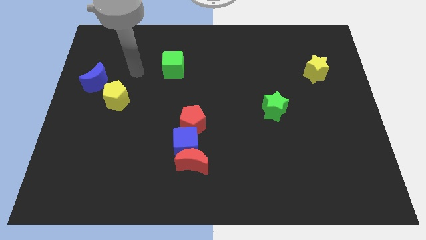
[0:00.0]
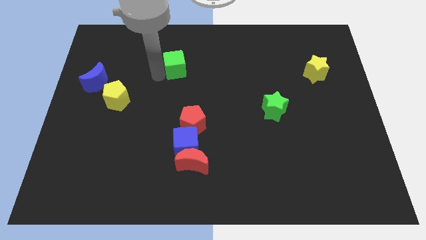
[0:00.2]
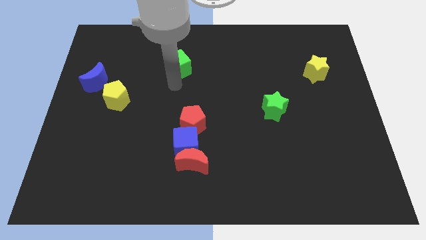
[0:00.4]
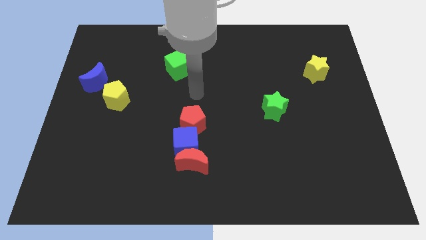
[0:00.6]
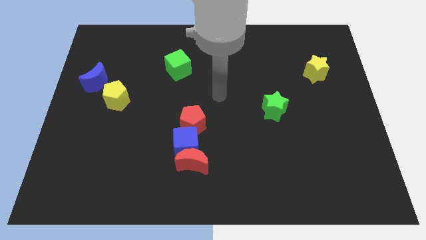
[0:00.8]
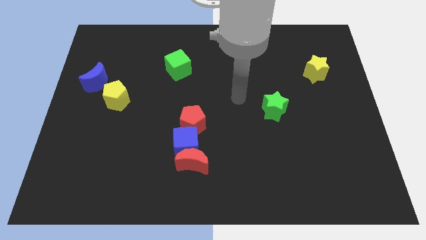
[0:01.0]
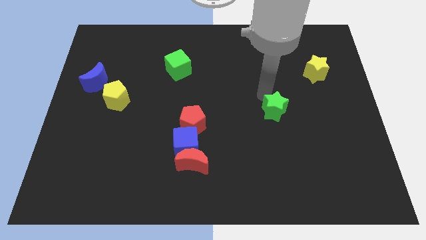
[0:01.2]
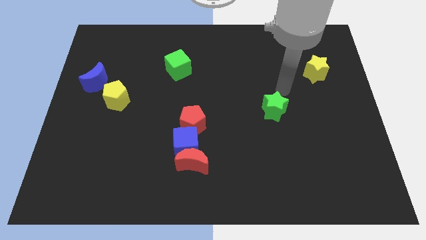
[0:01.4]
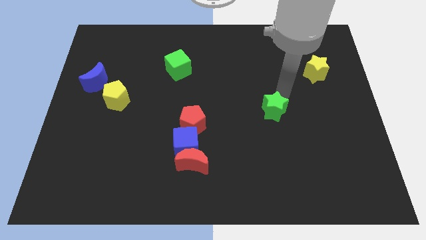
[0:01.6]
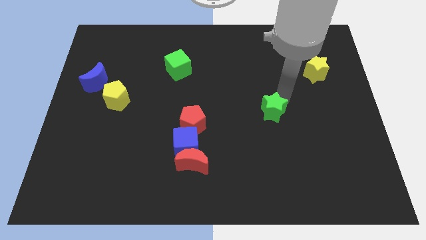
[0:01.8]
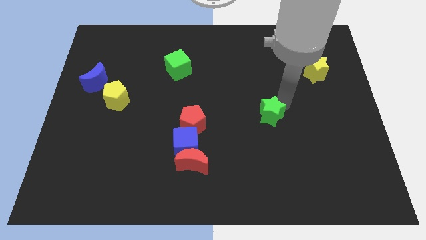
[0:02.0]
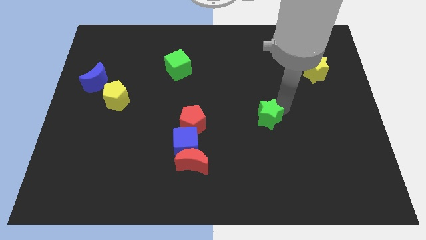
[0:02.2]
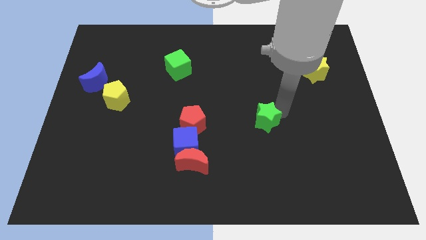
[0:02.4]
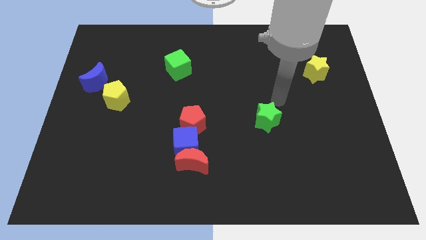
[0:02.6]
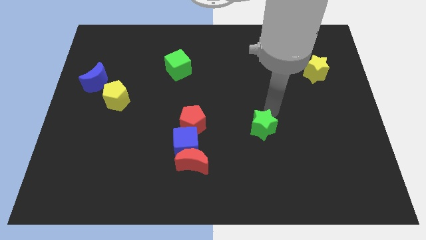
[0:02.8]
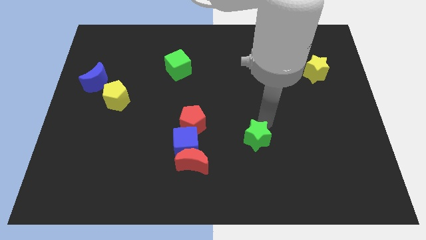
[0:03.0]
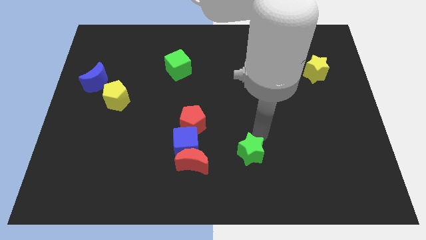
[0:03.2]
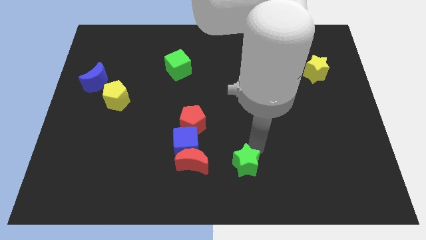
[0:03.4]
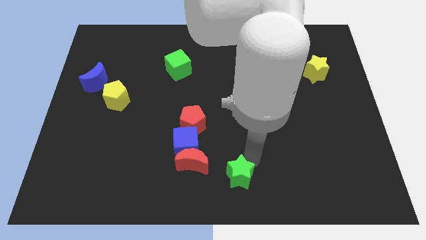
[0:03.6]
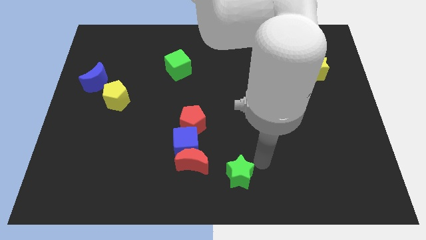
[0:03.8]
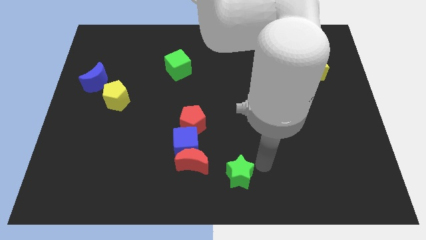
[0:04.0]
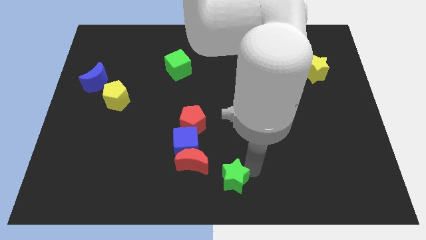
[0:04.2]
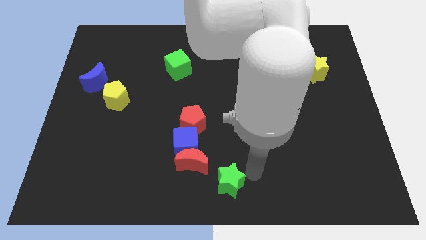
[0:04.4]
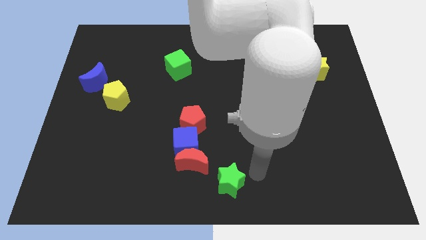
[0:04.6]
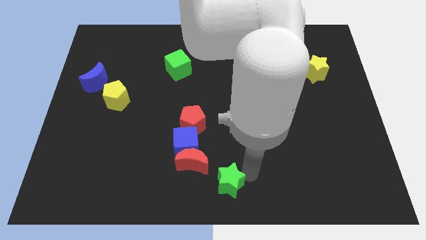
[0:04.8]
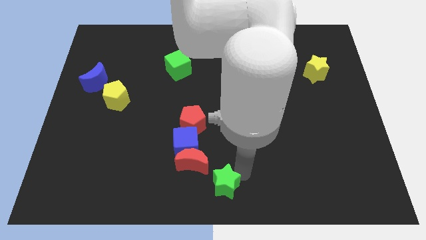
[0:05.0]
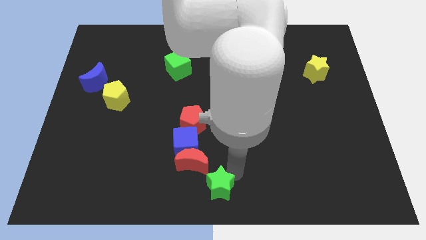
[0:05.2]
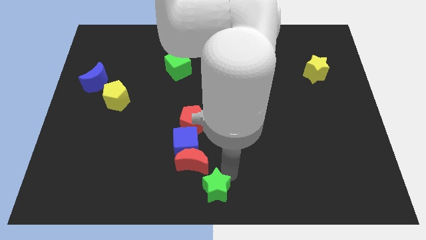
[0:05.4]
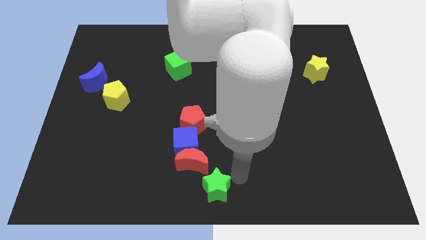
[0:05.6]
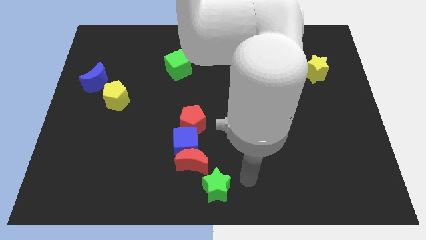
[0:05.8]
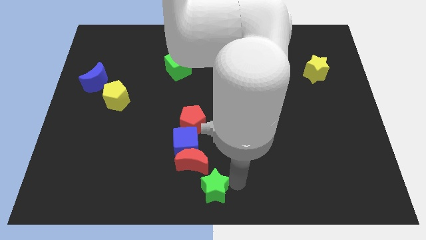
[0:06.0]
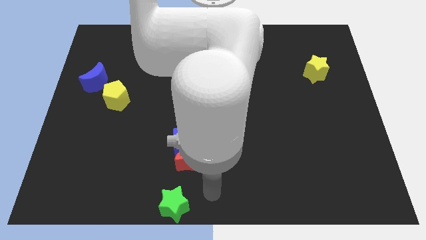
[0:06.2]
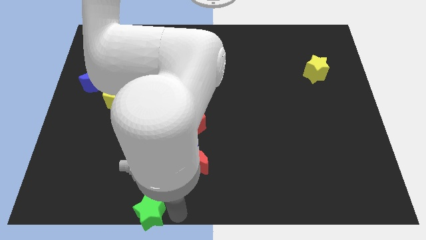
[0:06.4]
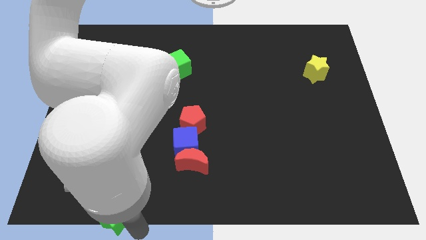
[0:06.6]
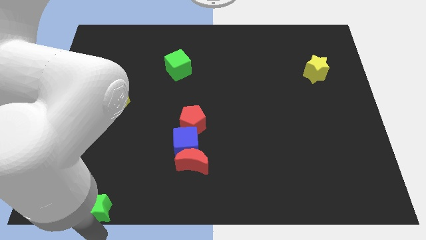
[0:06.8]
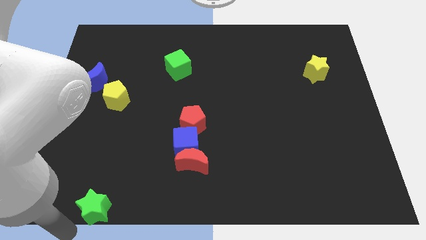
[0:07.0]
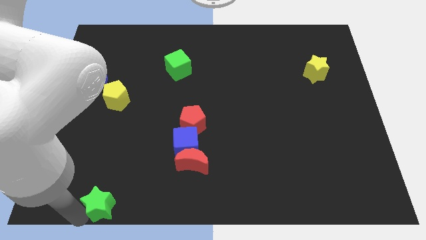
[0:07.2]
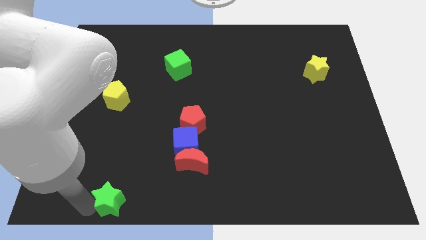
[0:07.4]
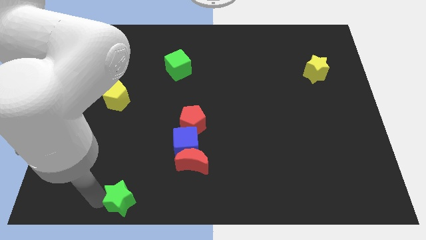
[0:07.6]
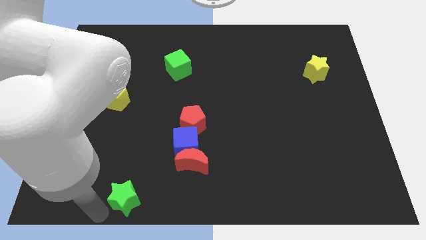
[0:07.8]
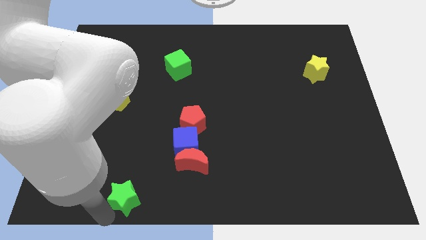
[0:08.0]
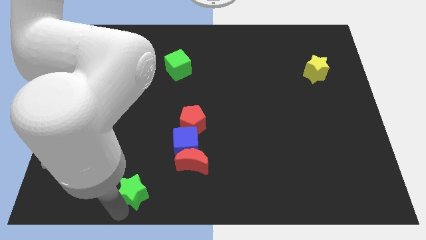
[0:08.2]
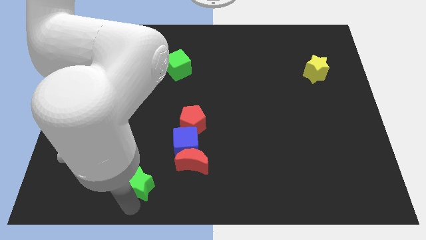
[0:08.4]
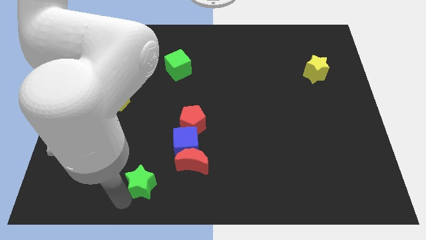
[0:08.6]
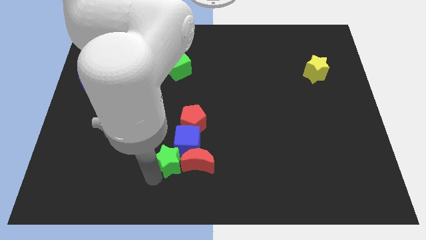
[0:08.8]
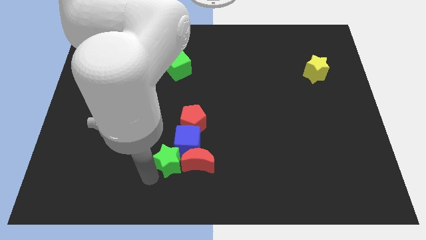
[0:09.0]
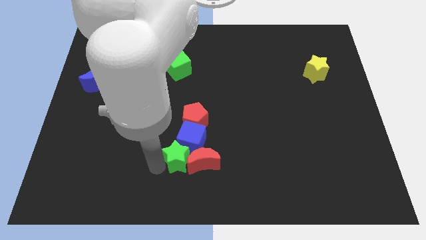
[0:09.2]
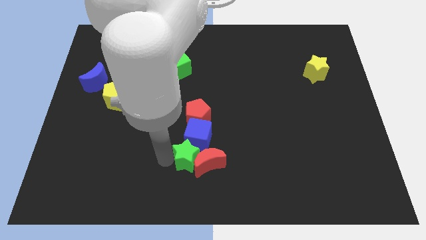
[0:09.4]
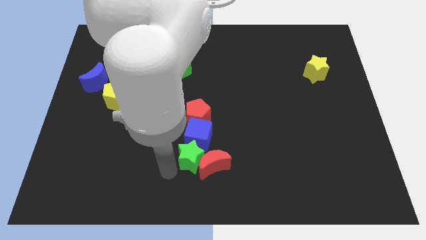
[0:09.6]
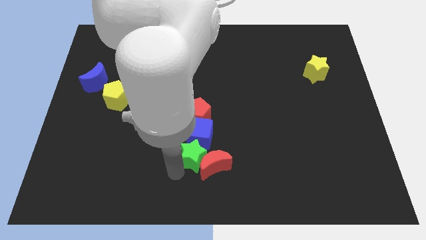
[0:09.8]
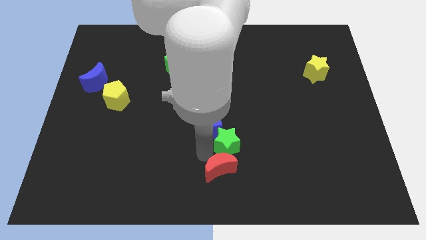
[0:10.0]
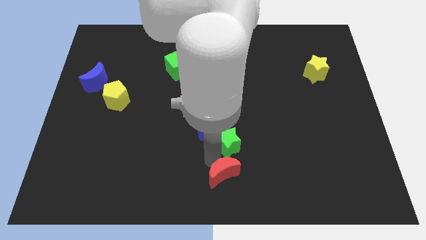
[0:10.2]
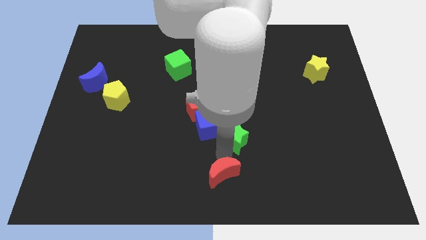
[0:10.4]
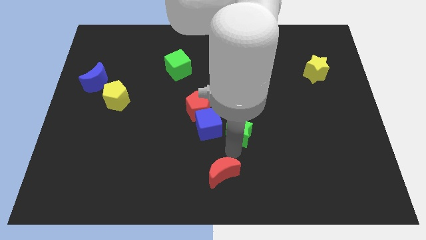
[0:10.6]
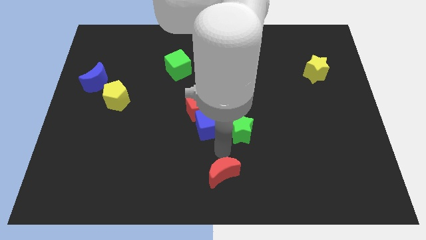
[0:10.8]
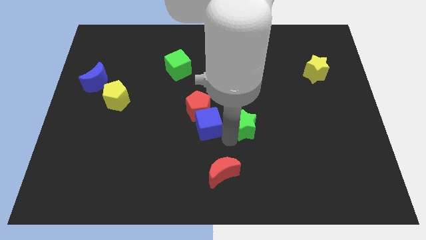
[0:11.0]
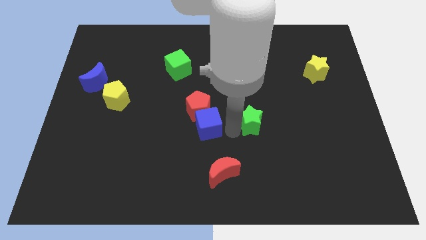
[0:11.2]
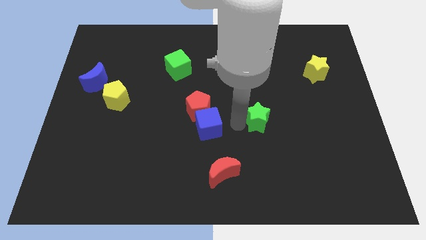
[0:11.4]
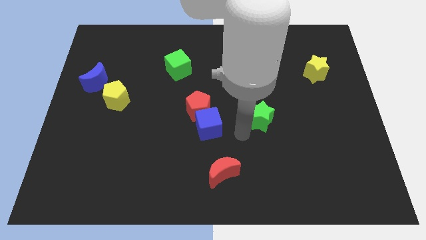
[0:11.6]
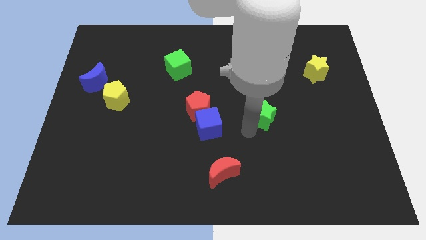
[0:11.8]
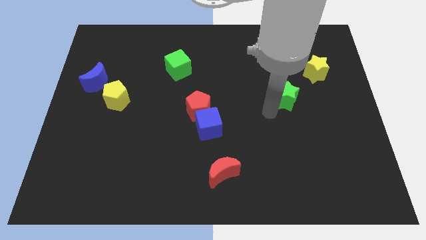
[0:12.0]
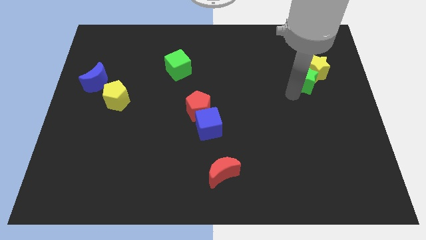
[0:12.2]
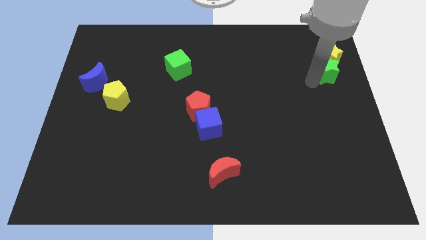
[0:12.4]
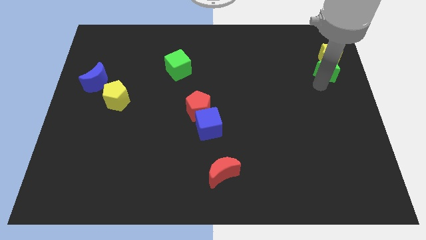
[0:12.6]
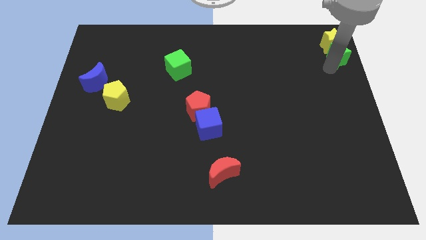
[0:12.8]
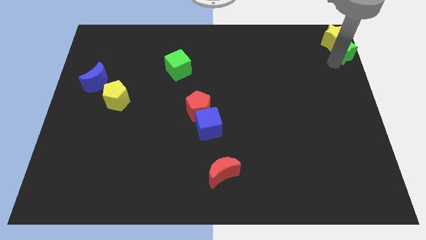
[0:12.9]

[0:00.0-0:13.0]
slide the green star to the top right corner
